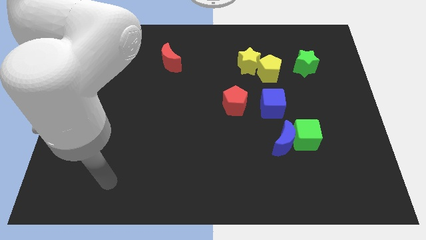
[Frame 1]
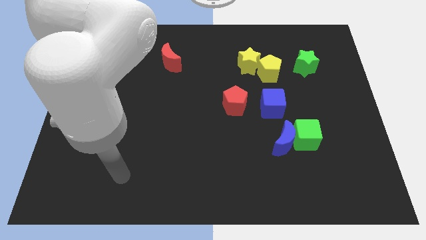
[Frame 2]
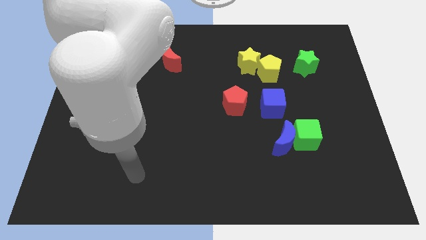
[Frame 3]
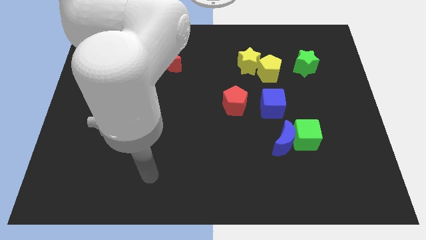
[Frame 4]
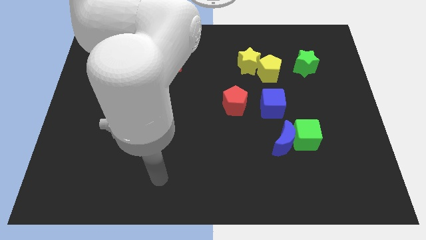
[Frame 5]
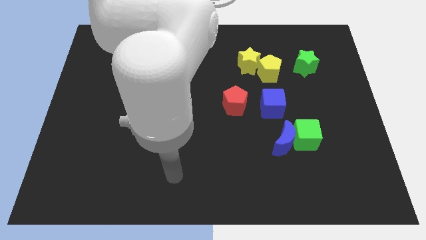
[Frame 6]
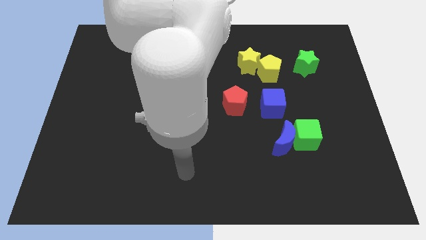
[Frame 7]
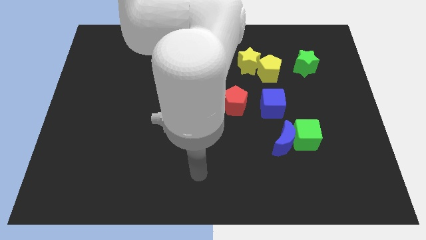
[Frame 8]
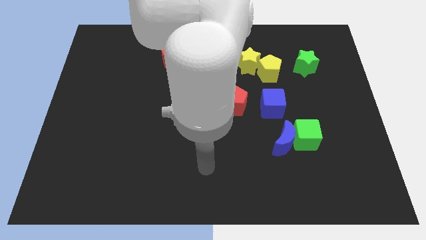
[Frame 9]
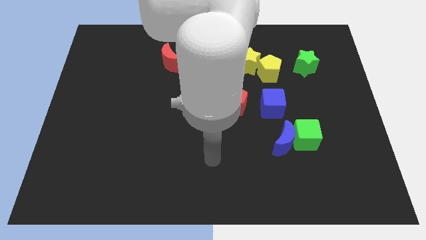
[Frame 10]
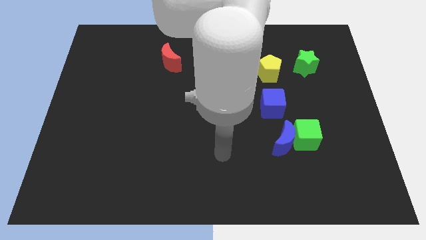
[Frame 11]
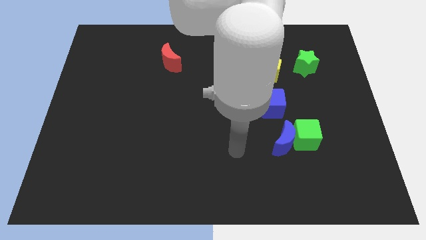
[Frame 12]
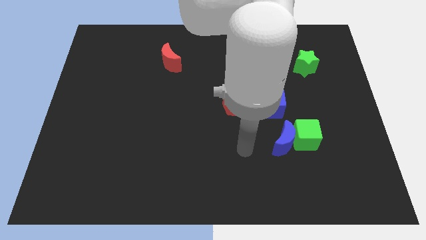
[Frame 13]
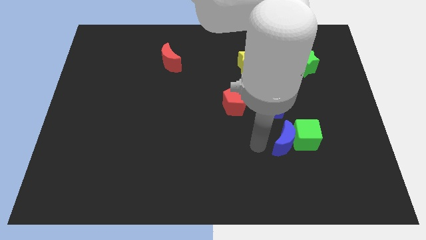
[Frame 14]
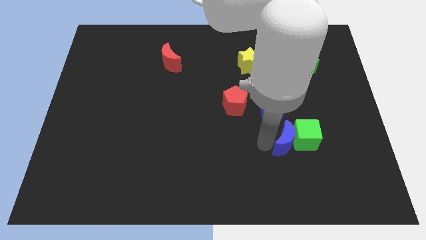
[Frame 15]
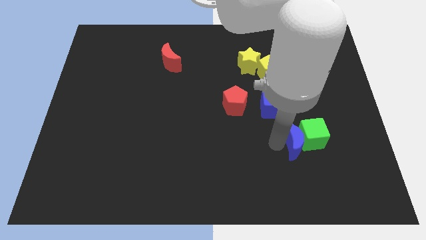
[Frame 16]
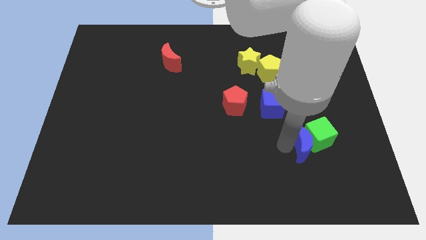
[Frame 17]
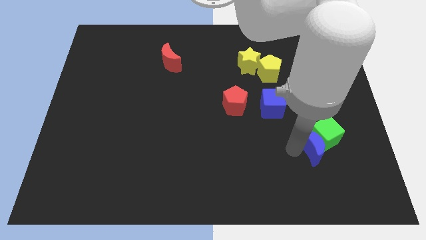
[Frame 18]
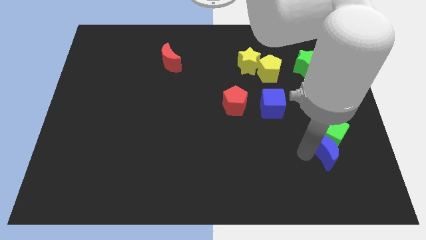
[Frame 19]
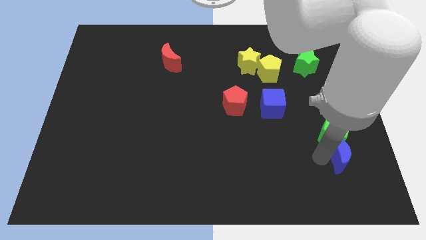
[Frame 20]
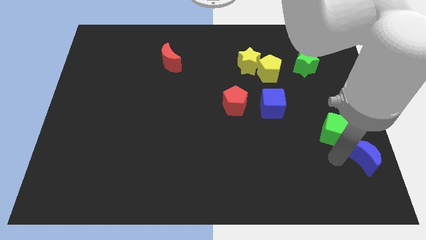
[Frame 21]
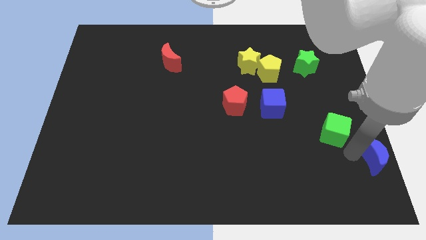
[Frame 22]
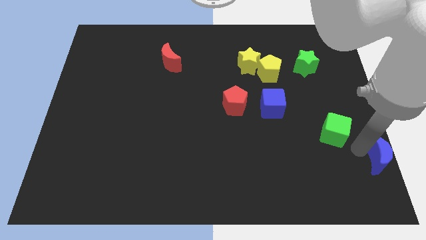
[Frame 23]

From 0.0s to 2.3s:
separate the green cube from the blue moon

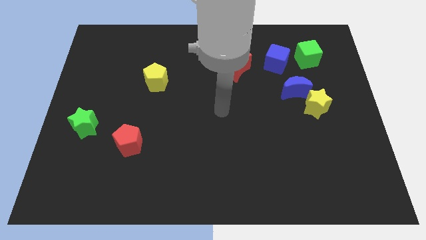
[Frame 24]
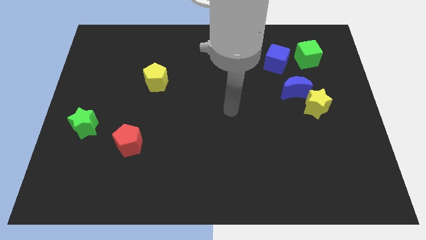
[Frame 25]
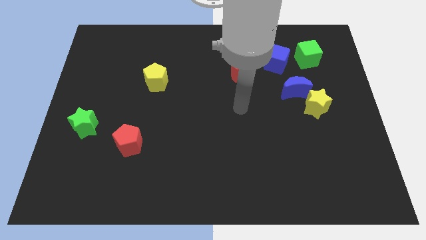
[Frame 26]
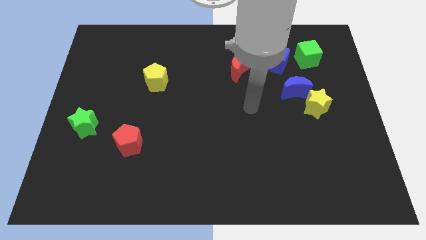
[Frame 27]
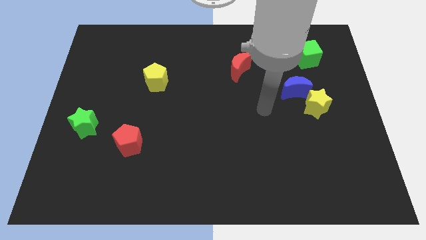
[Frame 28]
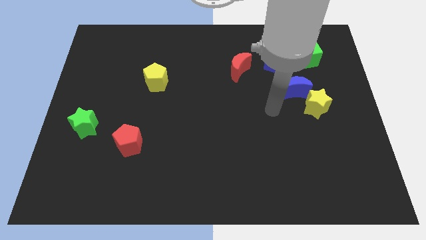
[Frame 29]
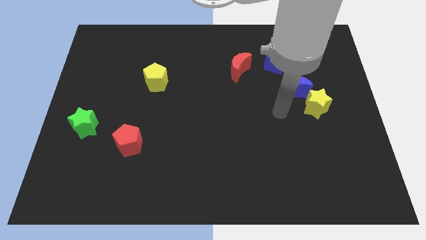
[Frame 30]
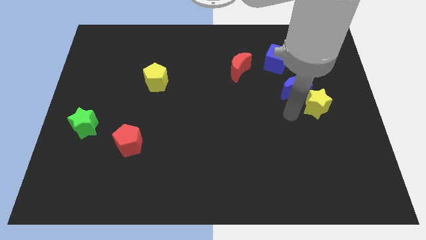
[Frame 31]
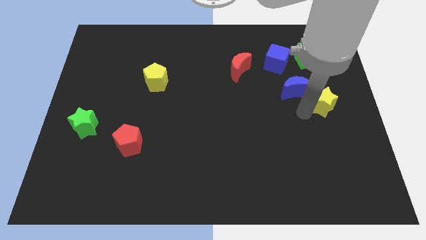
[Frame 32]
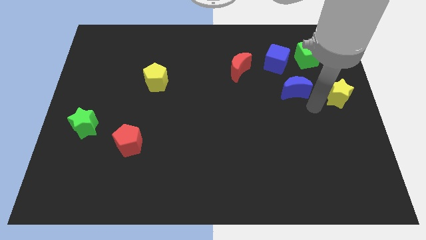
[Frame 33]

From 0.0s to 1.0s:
move the blue moon away from the yellow star

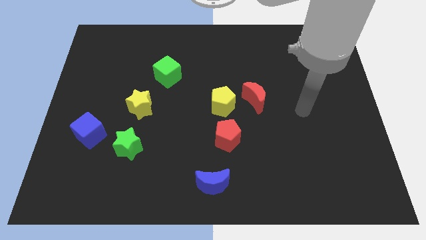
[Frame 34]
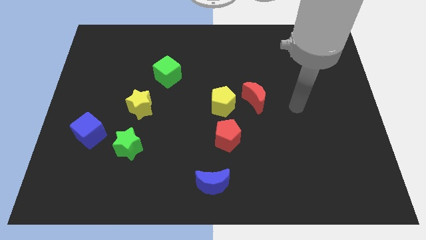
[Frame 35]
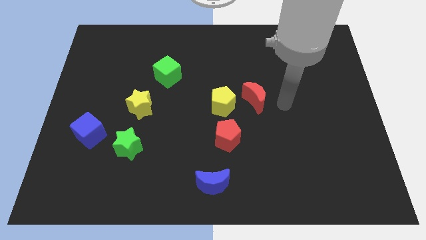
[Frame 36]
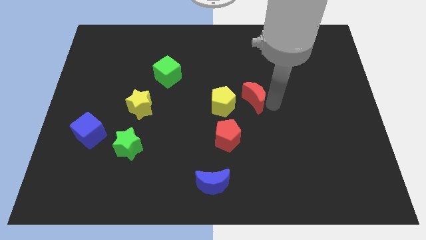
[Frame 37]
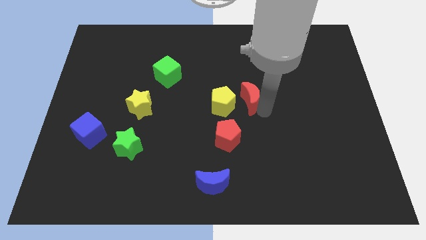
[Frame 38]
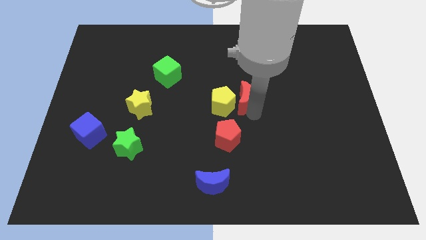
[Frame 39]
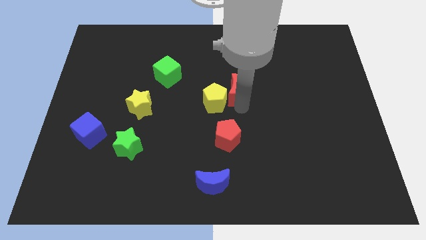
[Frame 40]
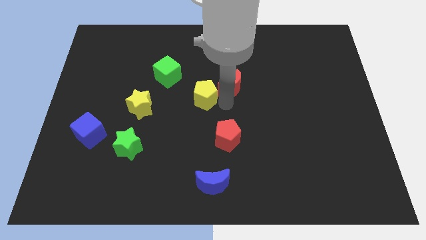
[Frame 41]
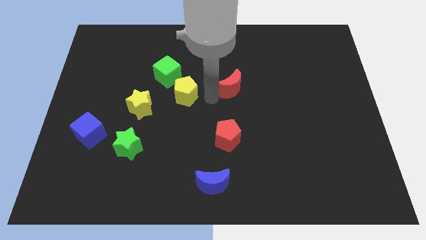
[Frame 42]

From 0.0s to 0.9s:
pull the red moon apart from the yellow pentagon

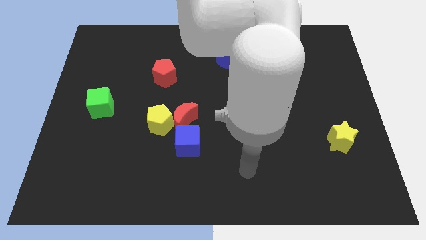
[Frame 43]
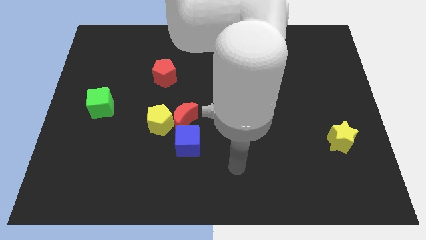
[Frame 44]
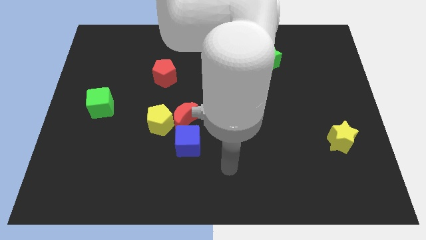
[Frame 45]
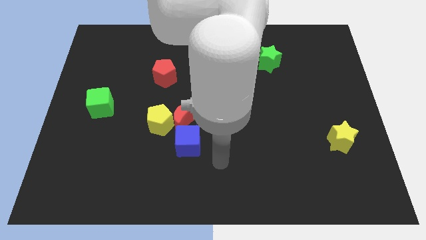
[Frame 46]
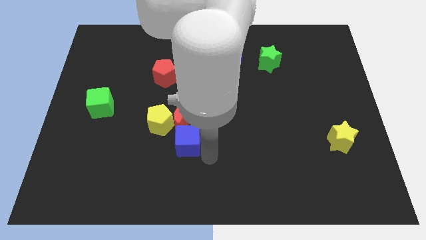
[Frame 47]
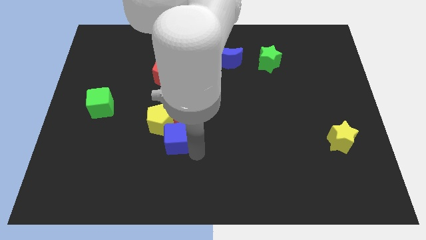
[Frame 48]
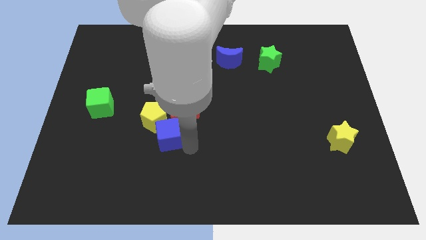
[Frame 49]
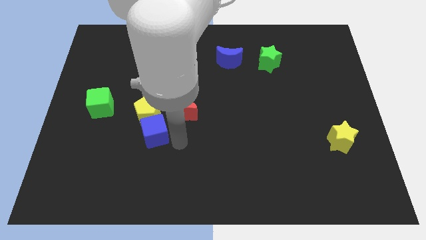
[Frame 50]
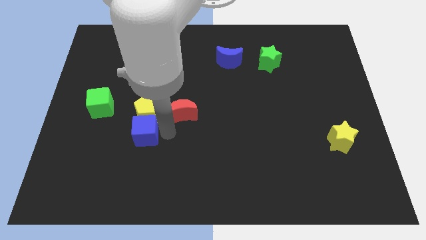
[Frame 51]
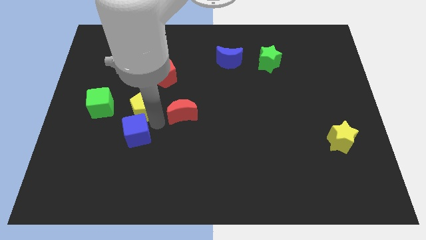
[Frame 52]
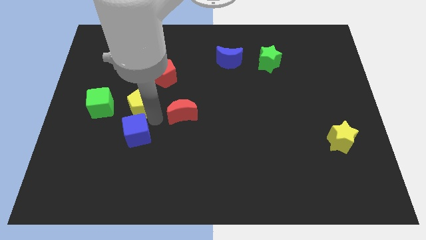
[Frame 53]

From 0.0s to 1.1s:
move the red moon away from the yellow pentagon and blue cube

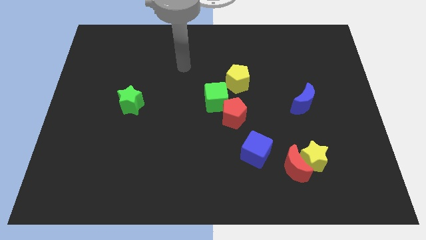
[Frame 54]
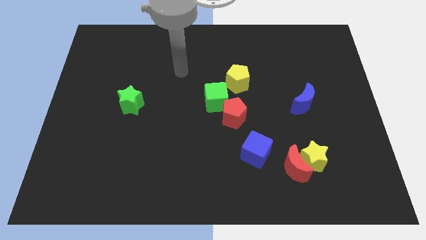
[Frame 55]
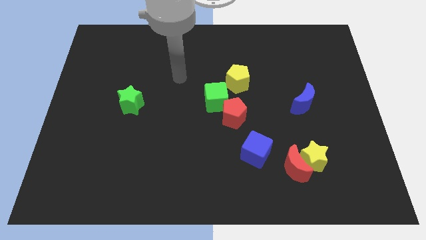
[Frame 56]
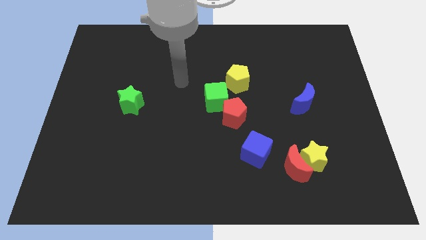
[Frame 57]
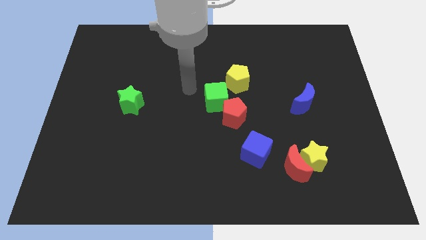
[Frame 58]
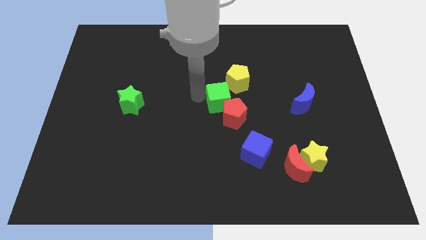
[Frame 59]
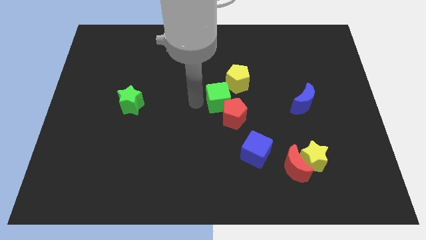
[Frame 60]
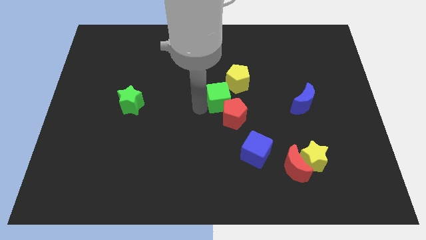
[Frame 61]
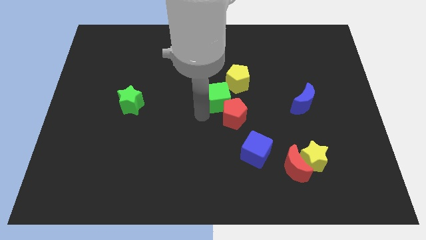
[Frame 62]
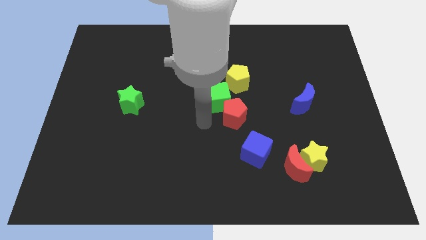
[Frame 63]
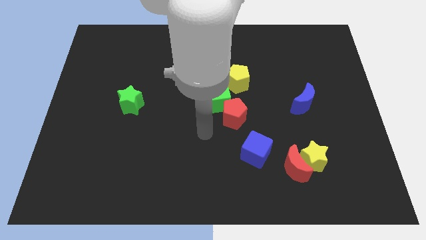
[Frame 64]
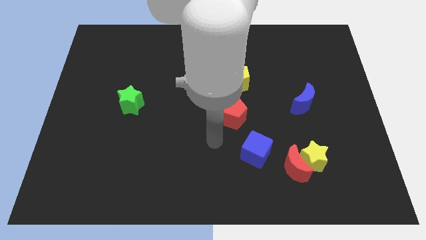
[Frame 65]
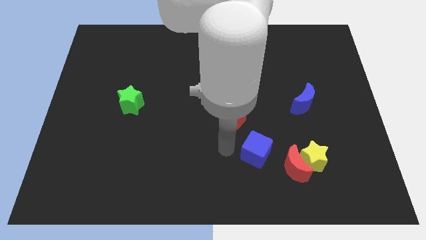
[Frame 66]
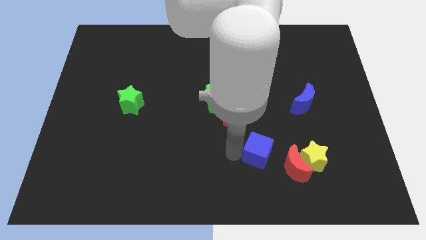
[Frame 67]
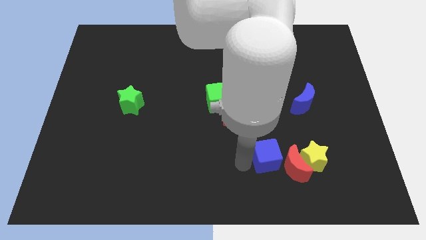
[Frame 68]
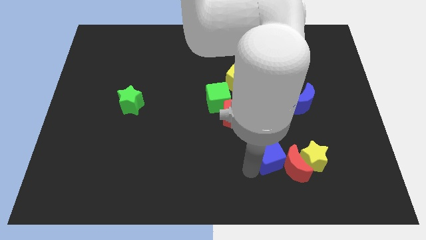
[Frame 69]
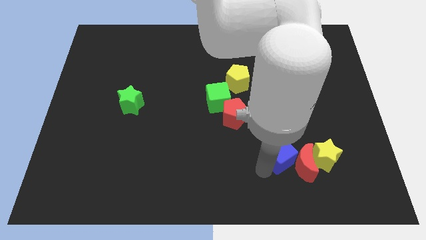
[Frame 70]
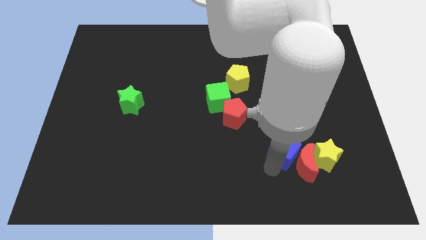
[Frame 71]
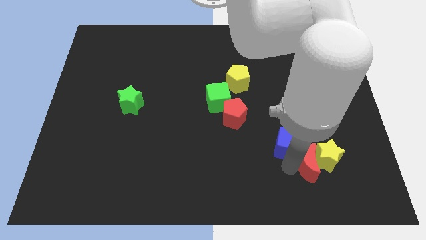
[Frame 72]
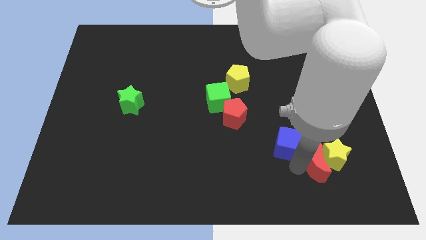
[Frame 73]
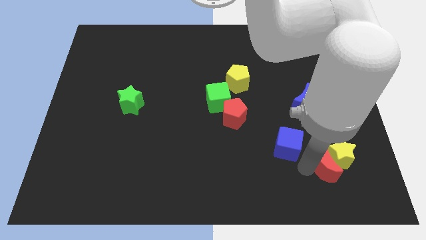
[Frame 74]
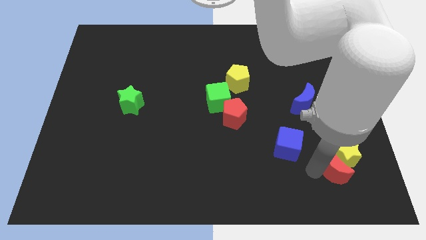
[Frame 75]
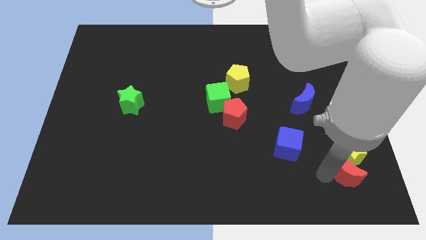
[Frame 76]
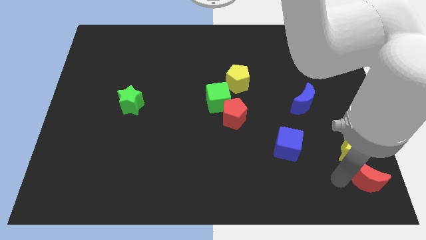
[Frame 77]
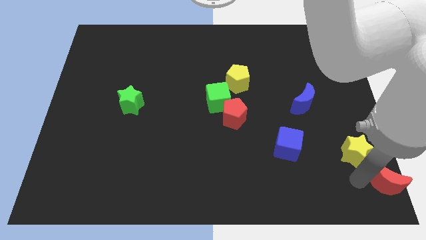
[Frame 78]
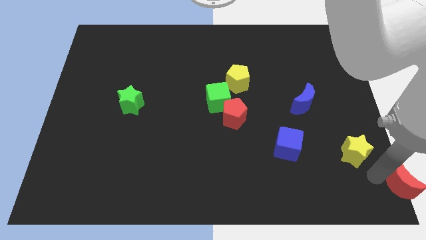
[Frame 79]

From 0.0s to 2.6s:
move the yellow star away from the red moon

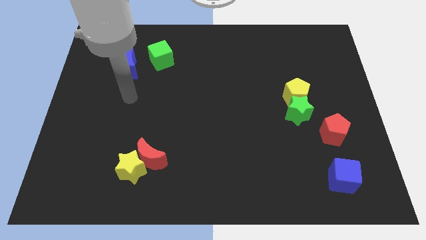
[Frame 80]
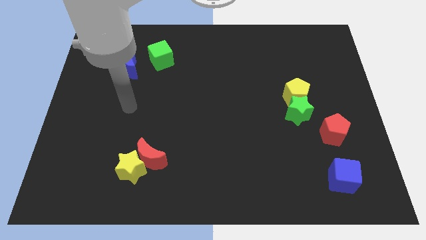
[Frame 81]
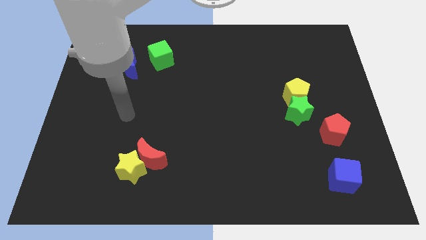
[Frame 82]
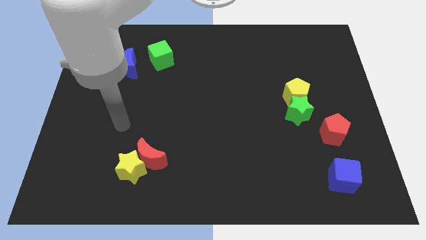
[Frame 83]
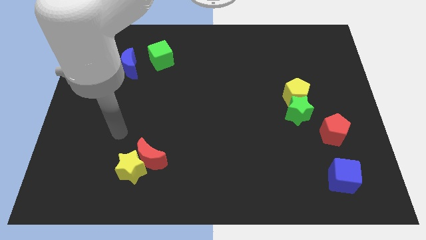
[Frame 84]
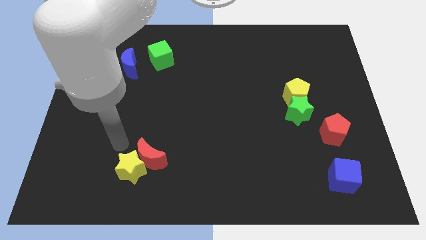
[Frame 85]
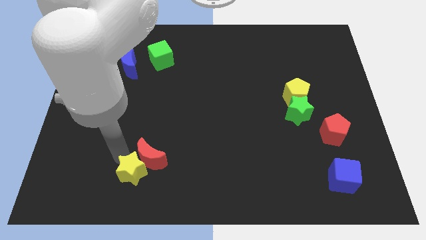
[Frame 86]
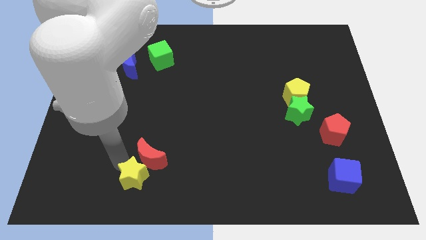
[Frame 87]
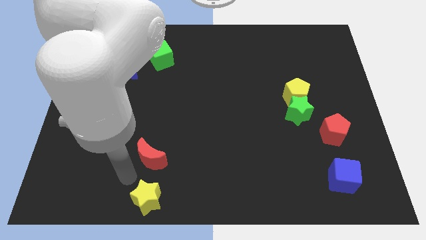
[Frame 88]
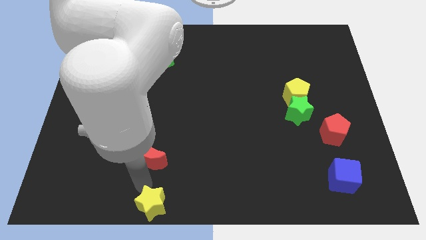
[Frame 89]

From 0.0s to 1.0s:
separate the red moon from the yellow star

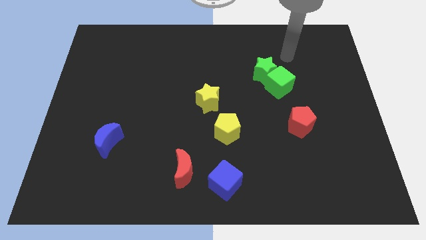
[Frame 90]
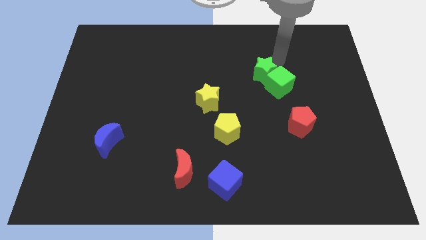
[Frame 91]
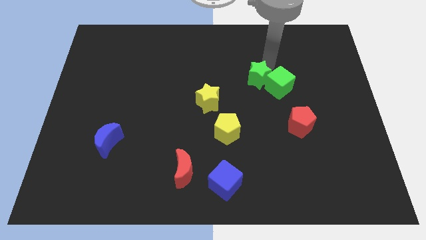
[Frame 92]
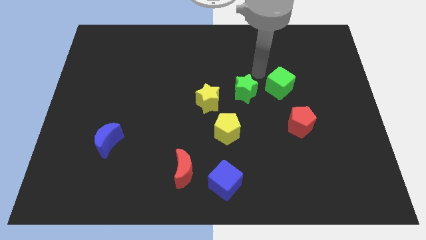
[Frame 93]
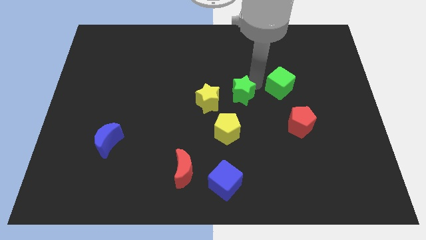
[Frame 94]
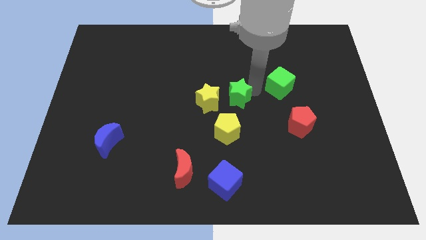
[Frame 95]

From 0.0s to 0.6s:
pull the green cube apart from the green star
